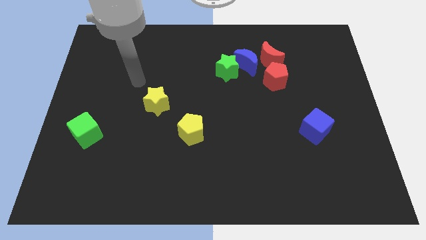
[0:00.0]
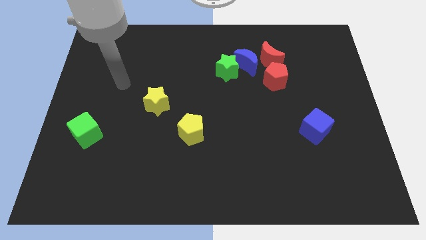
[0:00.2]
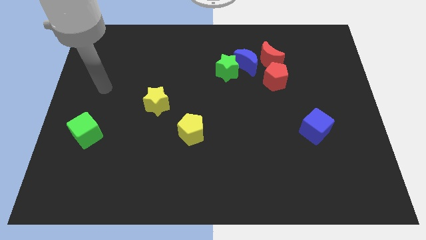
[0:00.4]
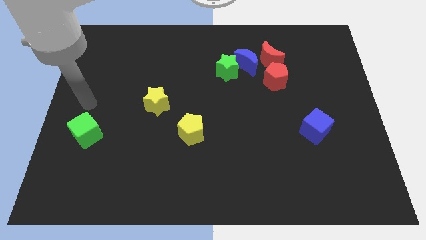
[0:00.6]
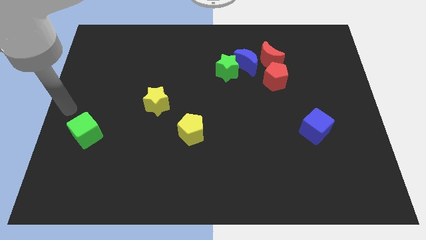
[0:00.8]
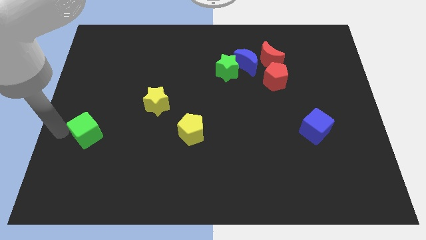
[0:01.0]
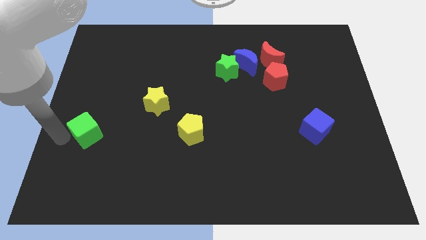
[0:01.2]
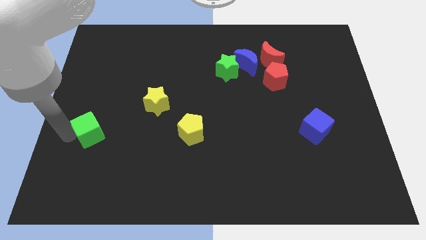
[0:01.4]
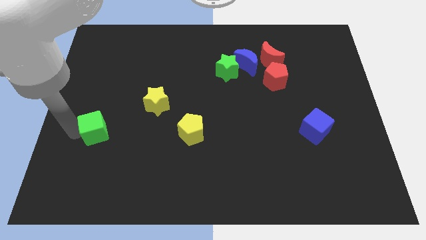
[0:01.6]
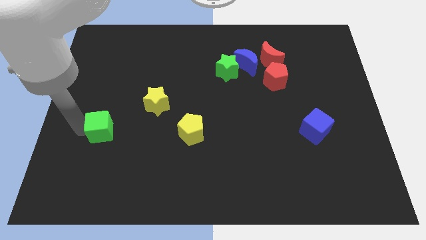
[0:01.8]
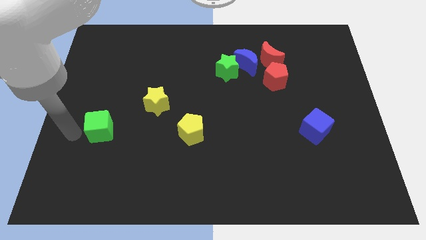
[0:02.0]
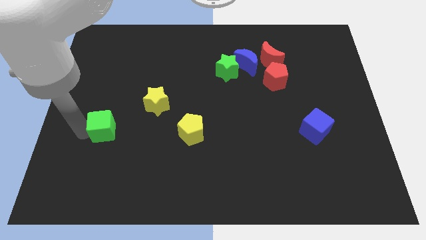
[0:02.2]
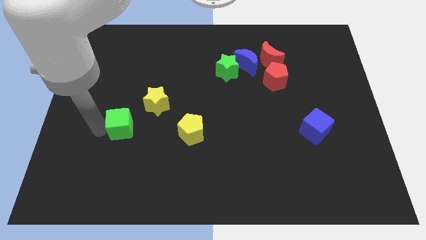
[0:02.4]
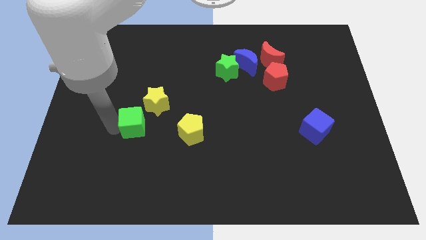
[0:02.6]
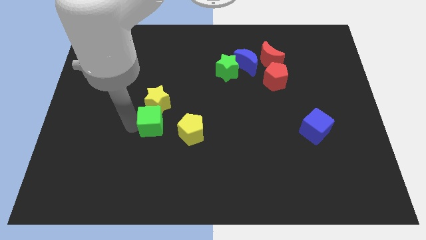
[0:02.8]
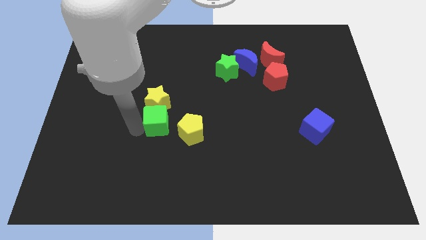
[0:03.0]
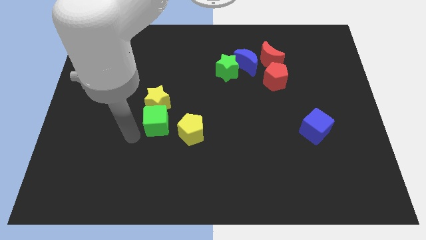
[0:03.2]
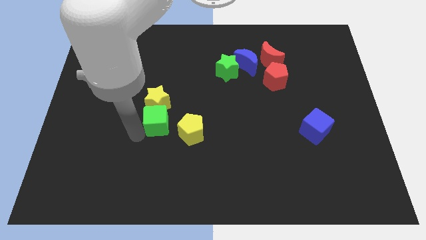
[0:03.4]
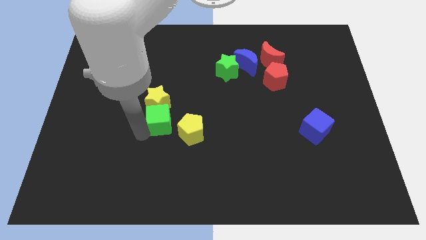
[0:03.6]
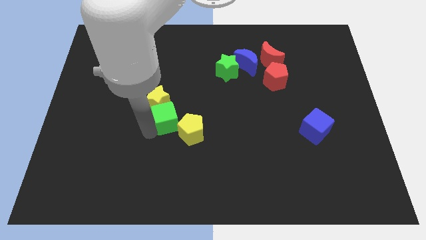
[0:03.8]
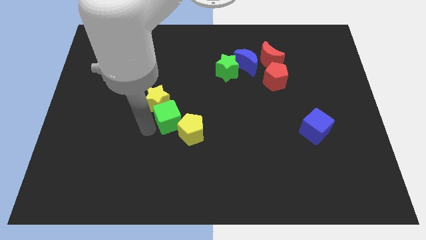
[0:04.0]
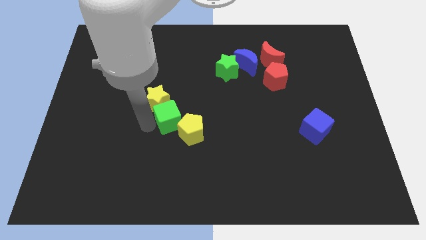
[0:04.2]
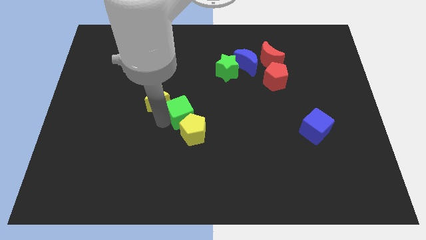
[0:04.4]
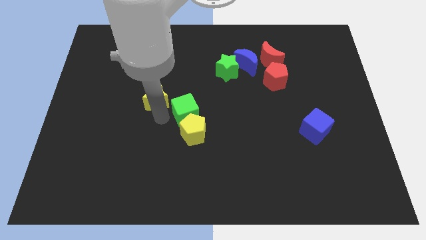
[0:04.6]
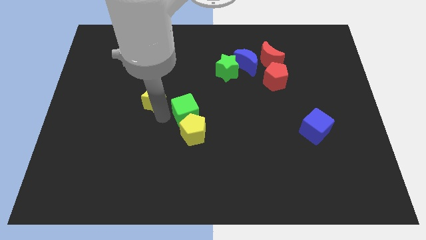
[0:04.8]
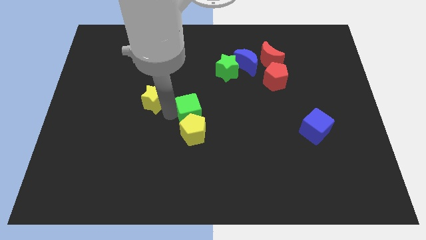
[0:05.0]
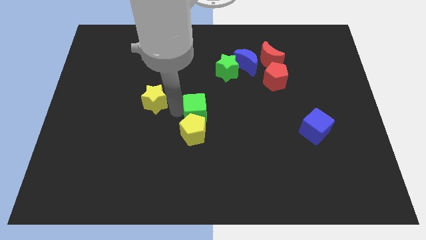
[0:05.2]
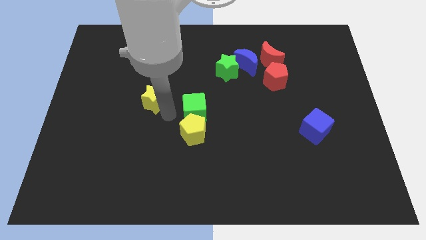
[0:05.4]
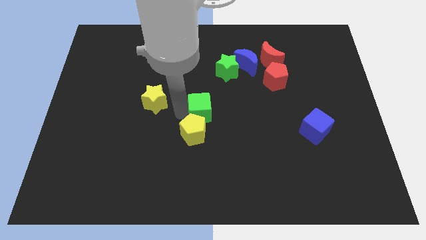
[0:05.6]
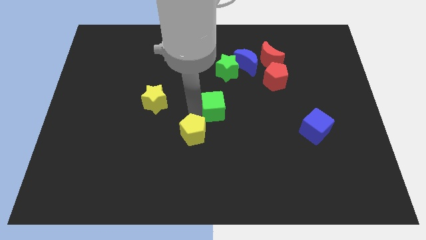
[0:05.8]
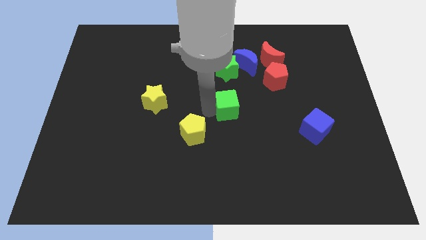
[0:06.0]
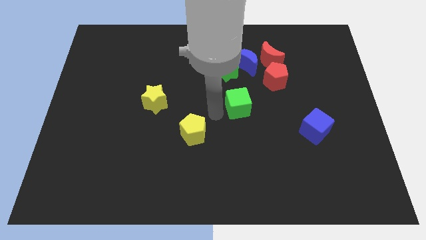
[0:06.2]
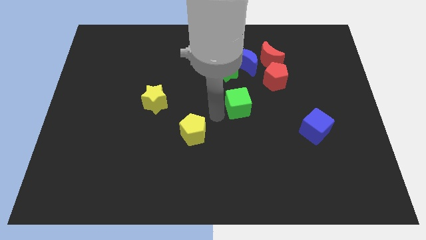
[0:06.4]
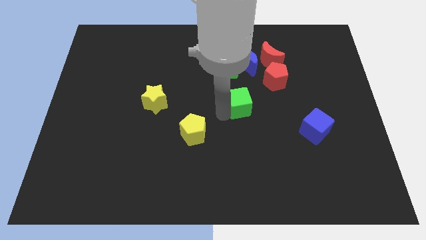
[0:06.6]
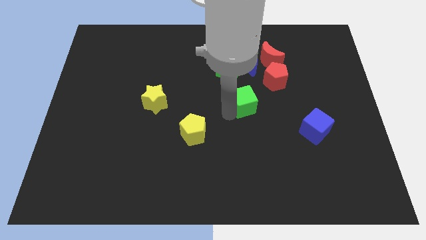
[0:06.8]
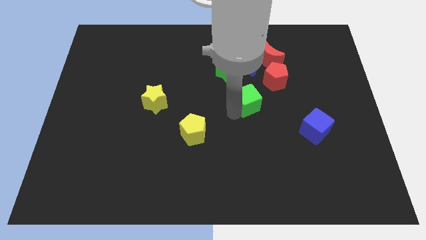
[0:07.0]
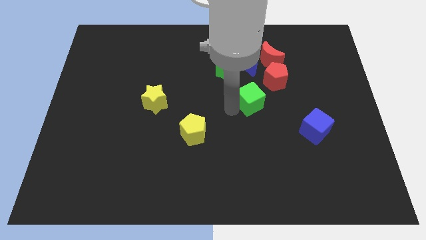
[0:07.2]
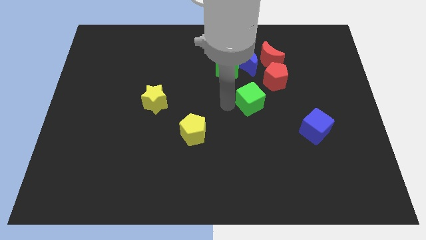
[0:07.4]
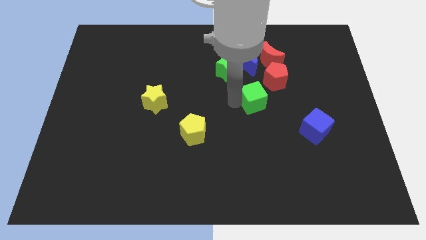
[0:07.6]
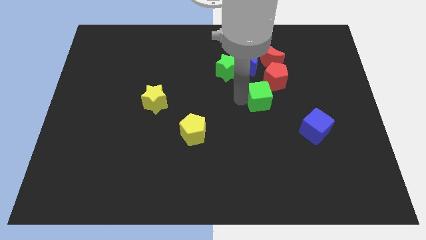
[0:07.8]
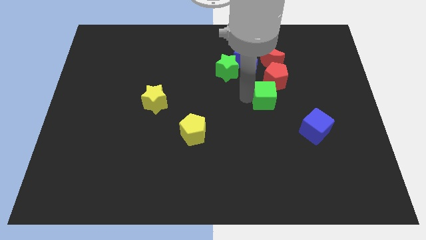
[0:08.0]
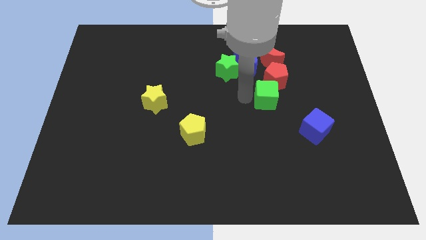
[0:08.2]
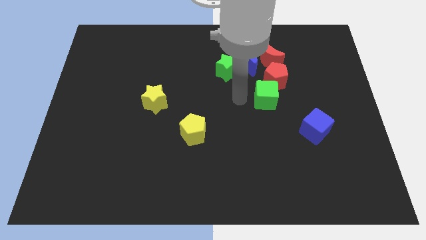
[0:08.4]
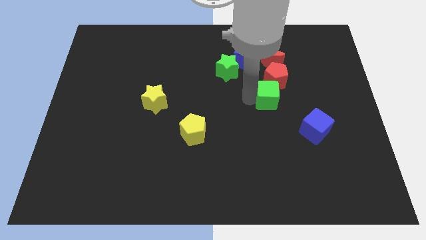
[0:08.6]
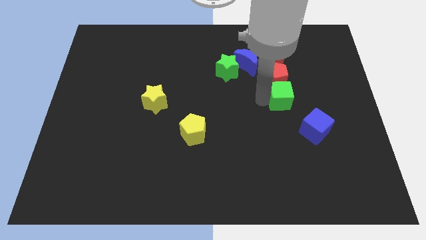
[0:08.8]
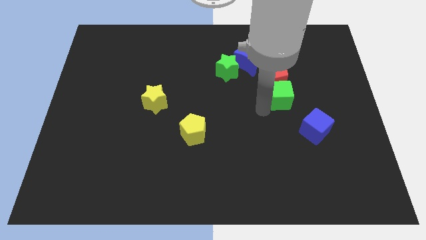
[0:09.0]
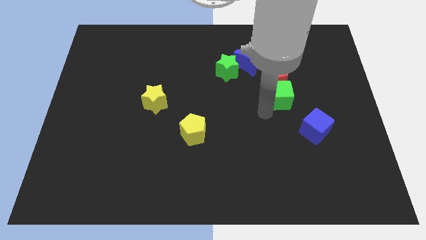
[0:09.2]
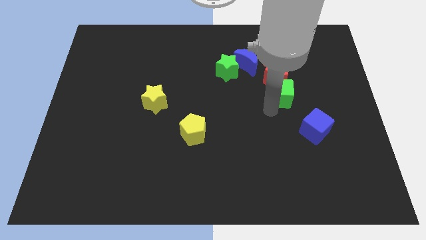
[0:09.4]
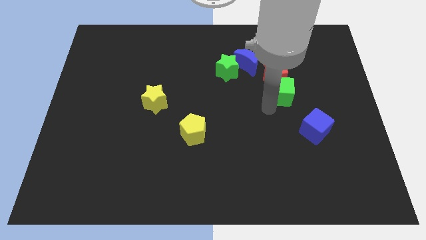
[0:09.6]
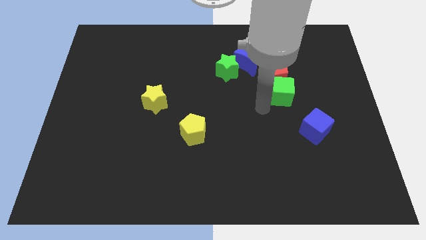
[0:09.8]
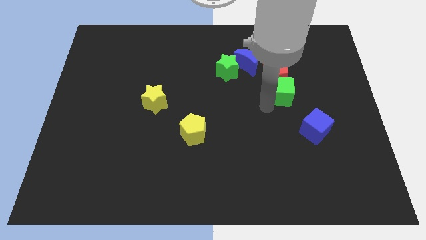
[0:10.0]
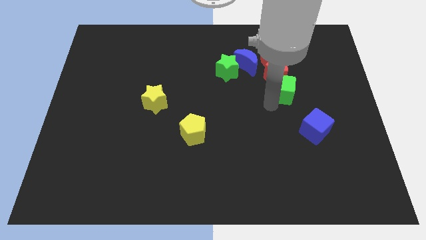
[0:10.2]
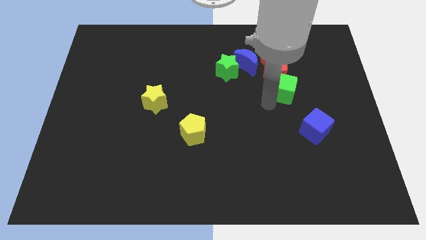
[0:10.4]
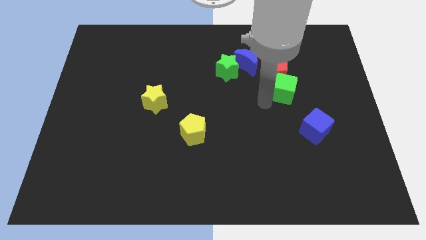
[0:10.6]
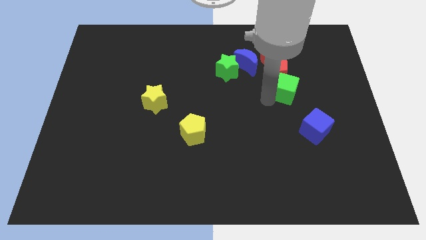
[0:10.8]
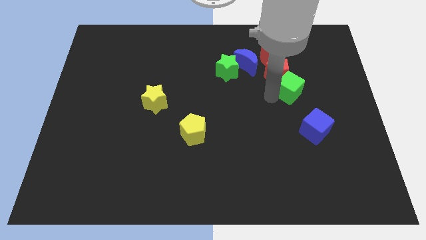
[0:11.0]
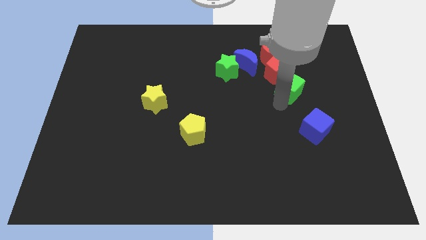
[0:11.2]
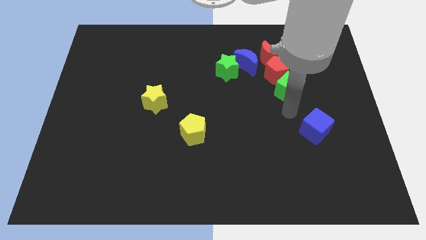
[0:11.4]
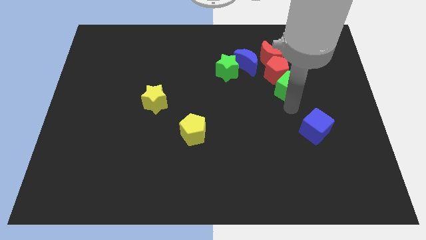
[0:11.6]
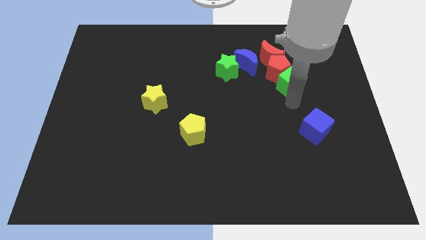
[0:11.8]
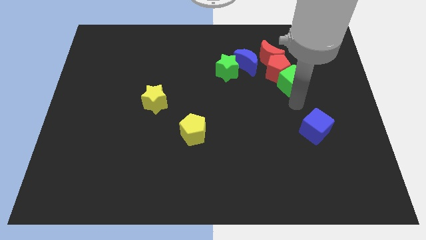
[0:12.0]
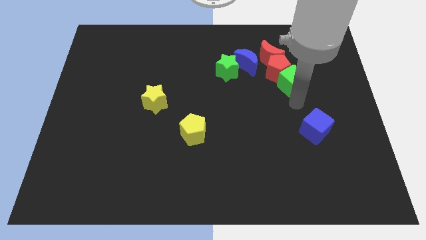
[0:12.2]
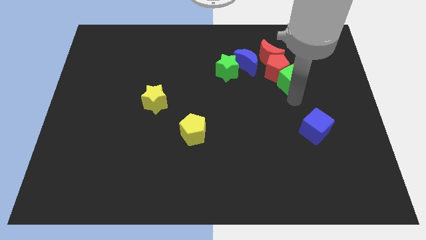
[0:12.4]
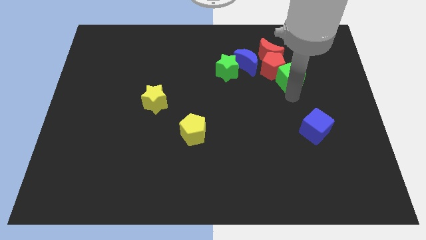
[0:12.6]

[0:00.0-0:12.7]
slide the green cube right of the green star

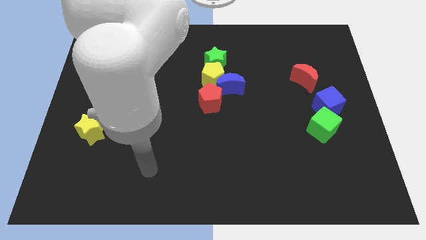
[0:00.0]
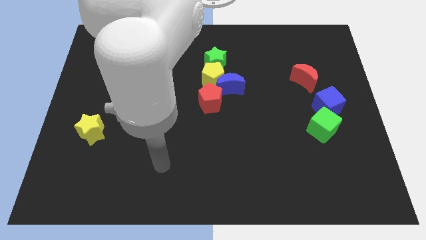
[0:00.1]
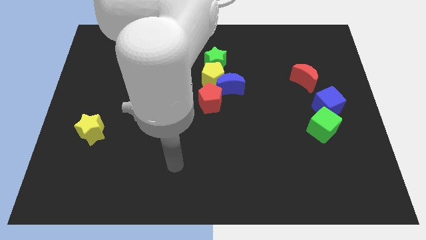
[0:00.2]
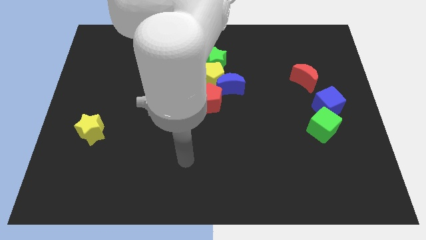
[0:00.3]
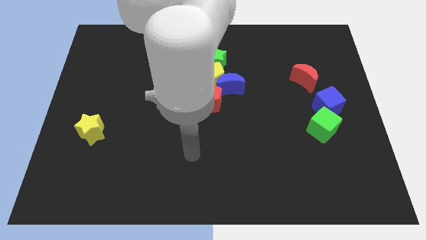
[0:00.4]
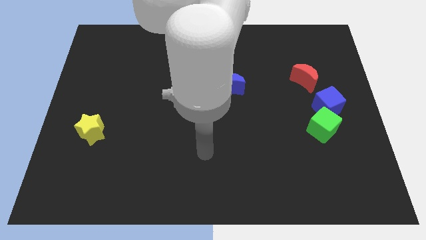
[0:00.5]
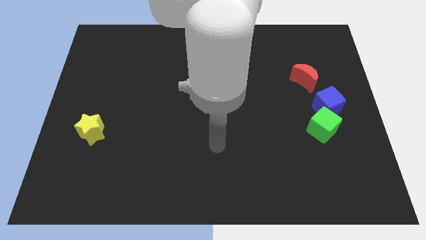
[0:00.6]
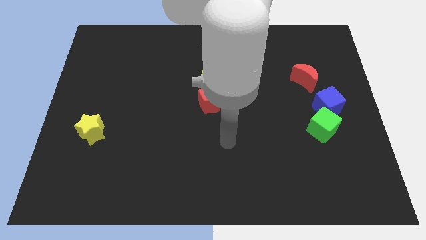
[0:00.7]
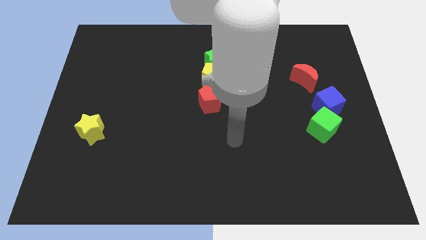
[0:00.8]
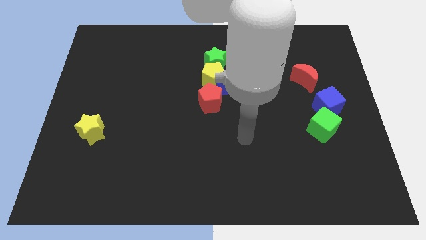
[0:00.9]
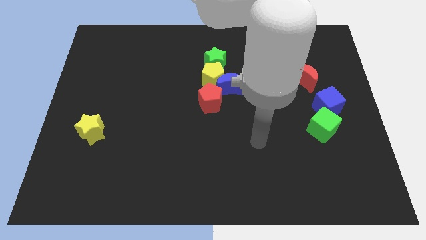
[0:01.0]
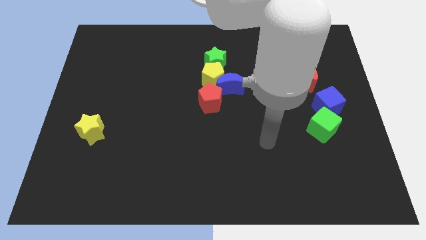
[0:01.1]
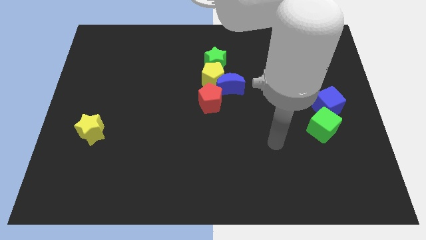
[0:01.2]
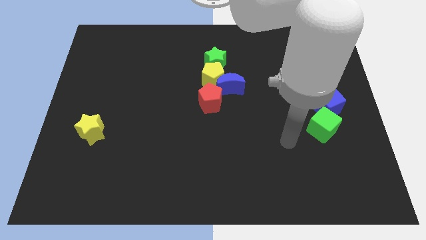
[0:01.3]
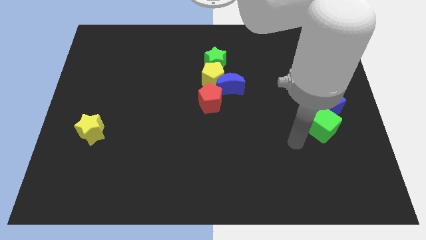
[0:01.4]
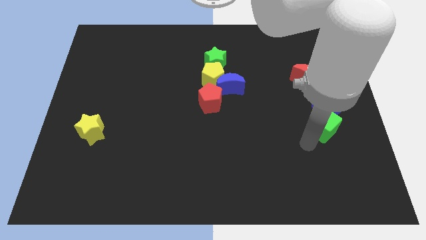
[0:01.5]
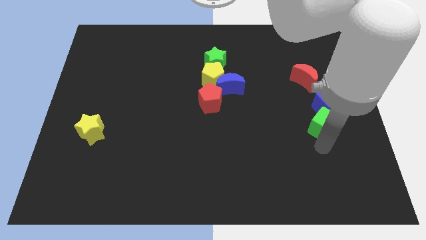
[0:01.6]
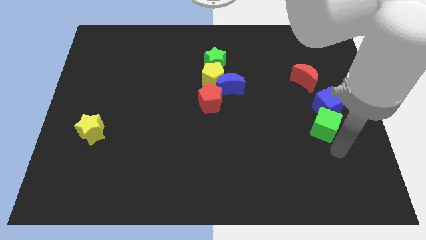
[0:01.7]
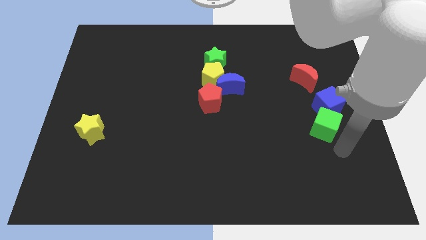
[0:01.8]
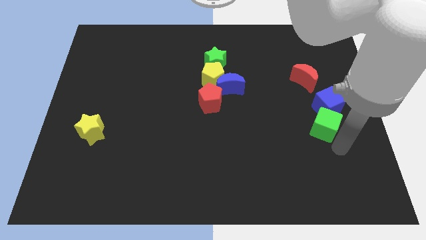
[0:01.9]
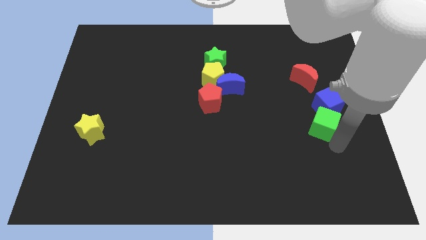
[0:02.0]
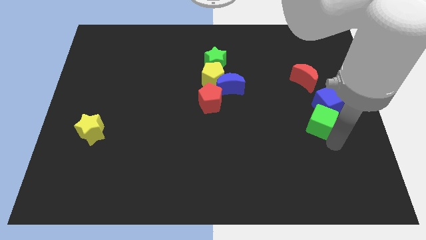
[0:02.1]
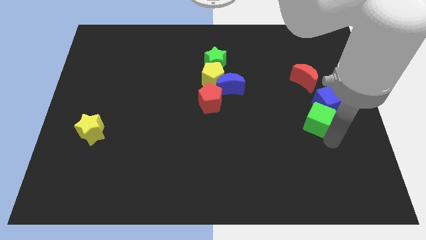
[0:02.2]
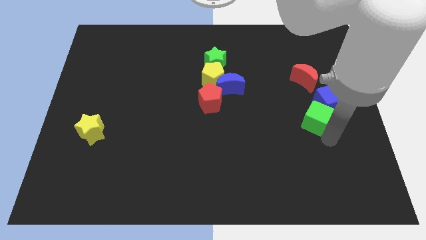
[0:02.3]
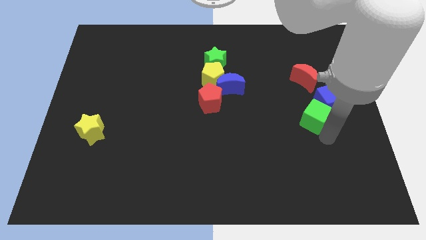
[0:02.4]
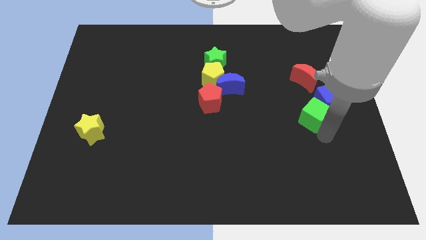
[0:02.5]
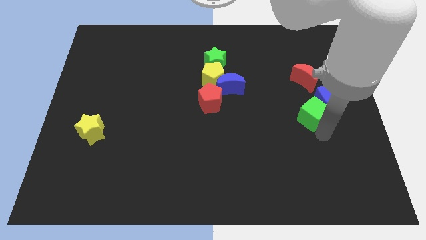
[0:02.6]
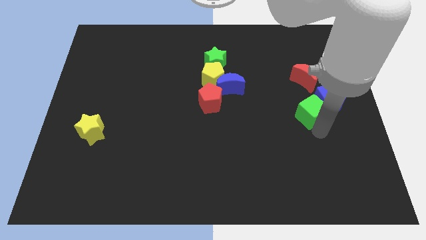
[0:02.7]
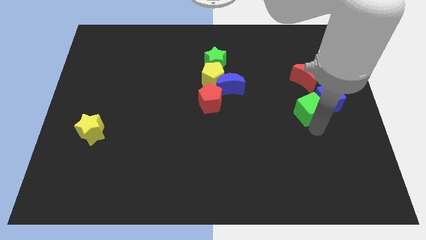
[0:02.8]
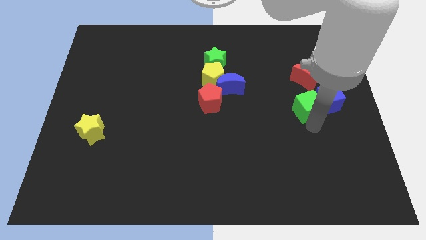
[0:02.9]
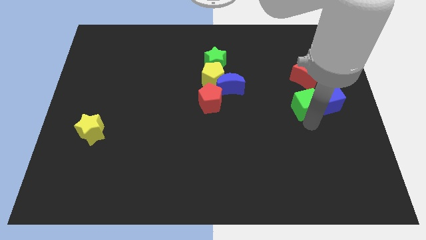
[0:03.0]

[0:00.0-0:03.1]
slide the green cube diagonally up and to the left of the blue cube
